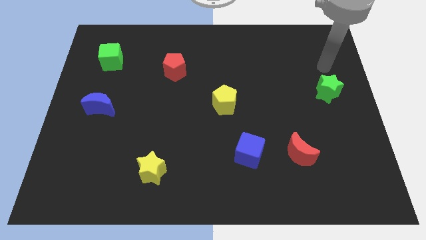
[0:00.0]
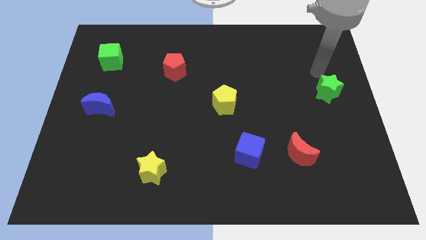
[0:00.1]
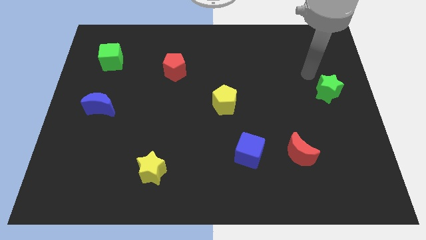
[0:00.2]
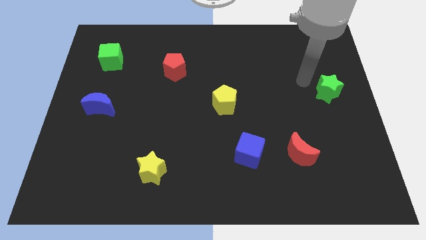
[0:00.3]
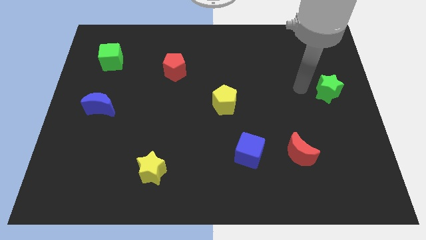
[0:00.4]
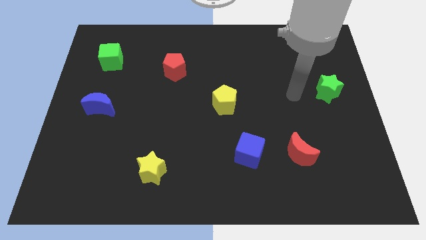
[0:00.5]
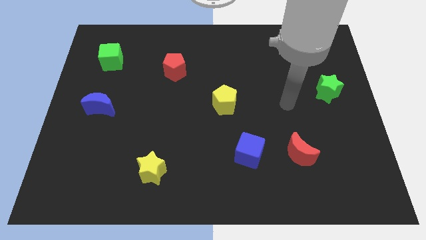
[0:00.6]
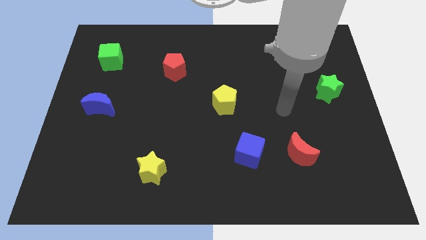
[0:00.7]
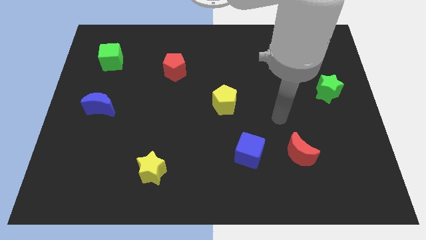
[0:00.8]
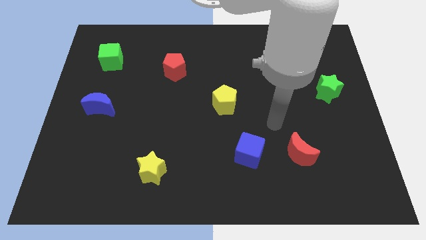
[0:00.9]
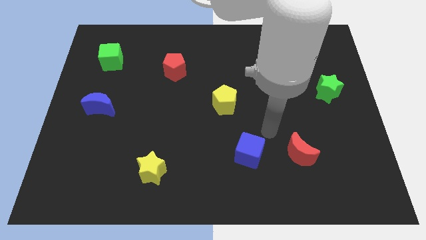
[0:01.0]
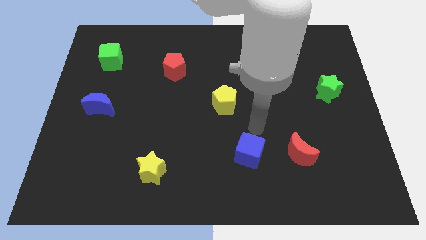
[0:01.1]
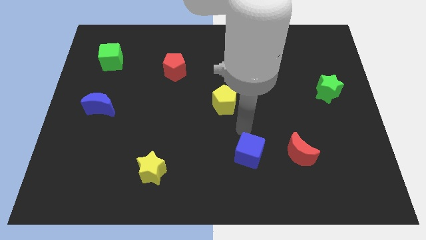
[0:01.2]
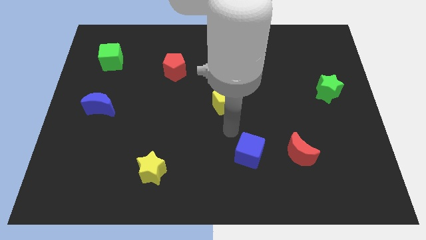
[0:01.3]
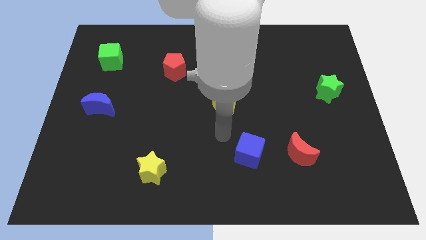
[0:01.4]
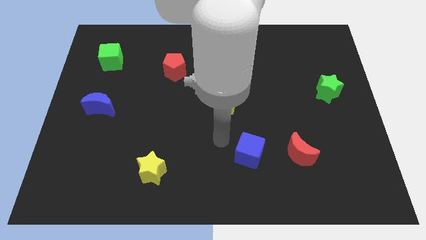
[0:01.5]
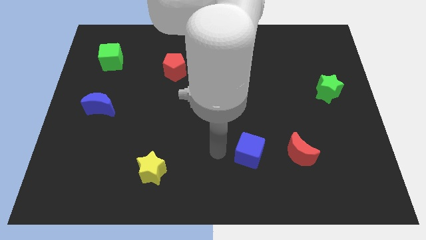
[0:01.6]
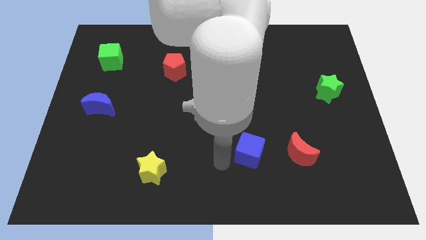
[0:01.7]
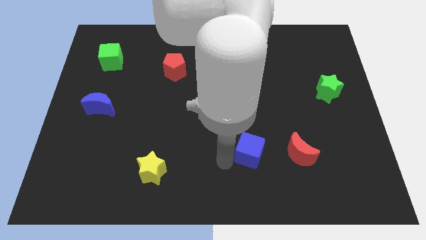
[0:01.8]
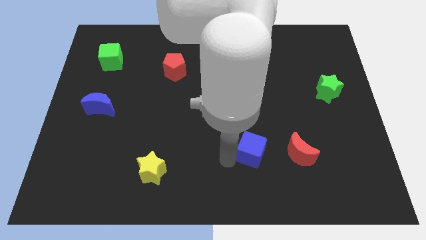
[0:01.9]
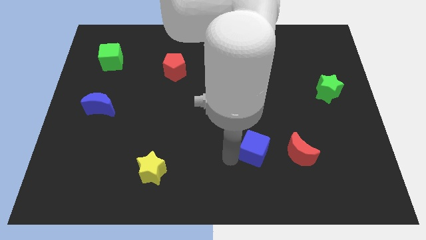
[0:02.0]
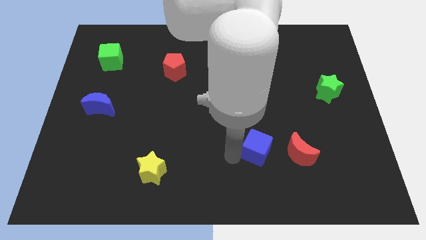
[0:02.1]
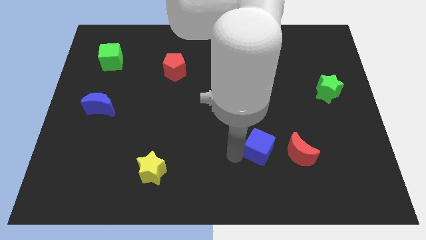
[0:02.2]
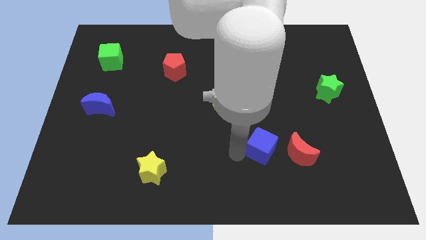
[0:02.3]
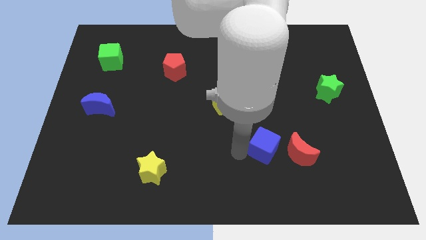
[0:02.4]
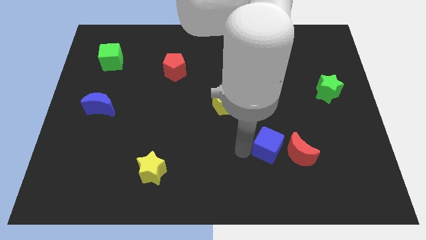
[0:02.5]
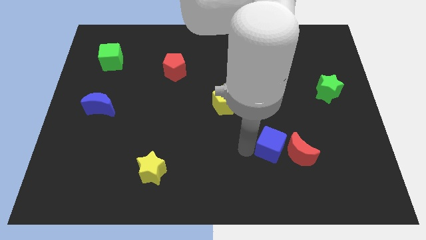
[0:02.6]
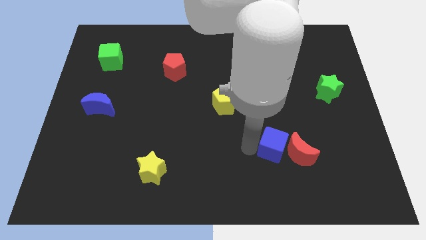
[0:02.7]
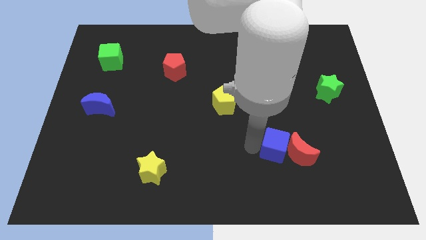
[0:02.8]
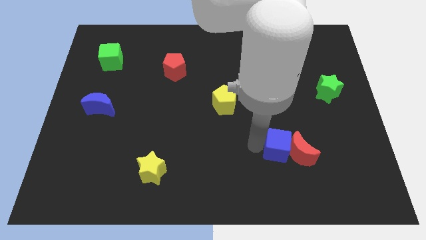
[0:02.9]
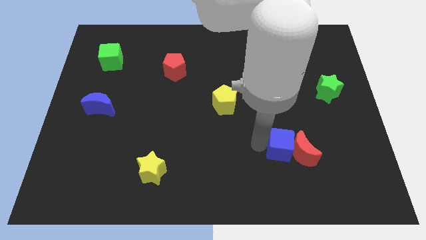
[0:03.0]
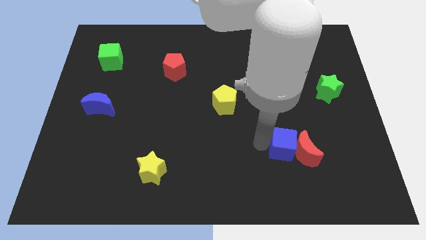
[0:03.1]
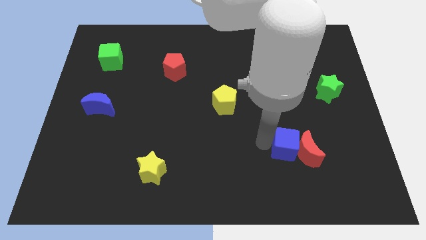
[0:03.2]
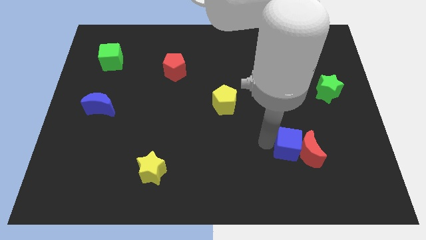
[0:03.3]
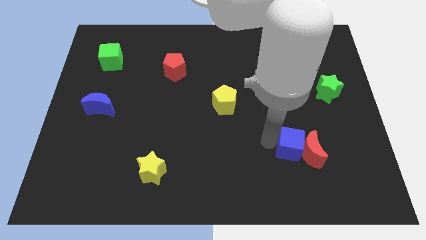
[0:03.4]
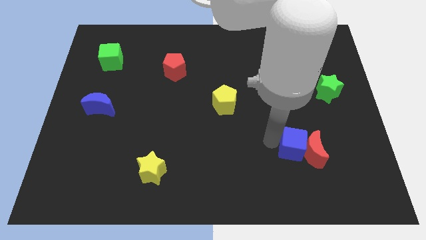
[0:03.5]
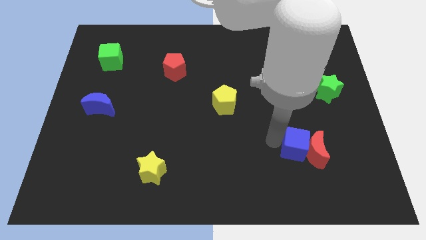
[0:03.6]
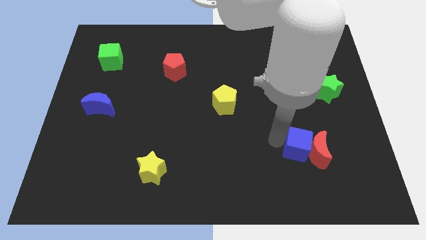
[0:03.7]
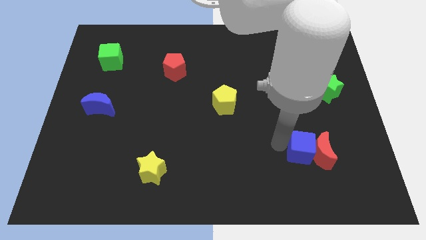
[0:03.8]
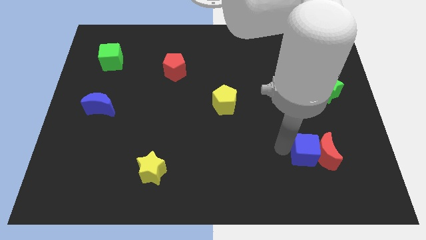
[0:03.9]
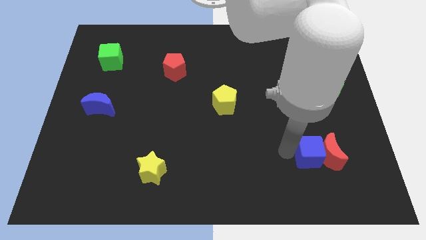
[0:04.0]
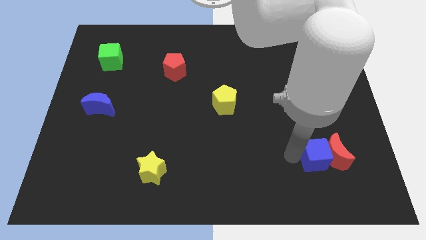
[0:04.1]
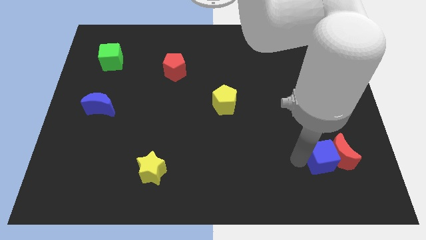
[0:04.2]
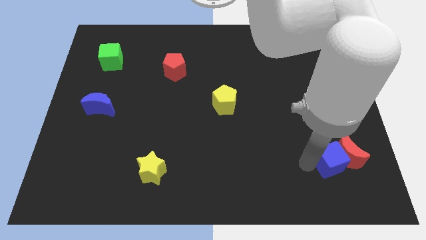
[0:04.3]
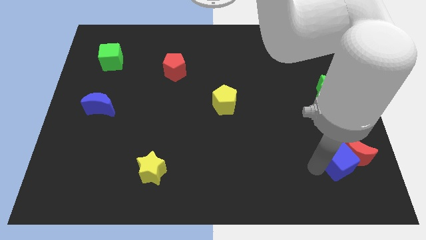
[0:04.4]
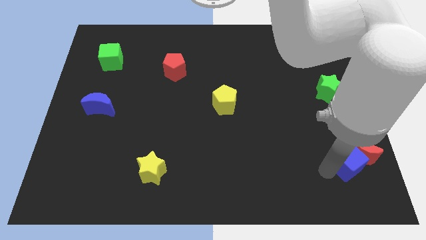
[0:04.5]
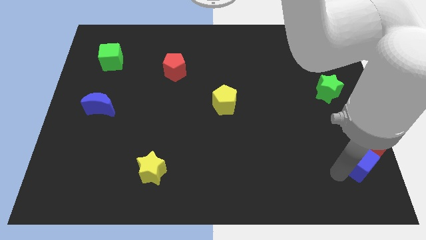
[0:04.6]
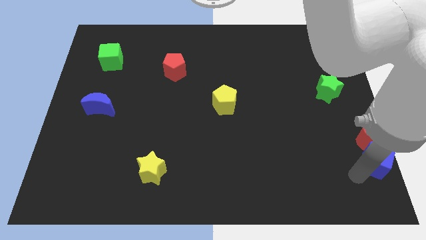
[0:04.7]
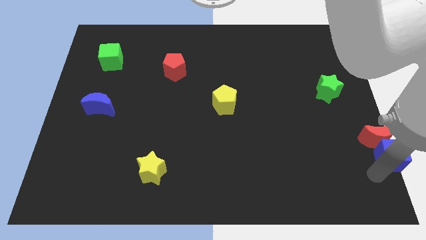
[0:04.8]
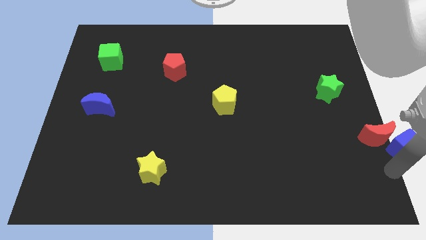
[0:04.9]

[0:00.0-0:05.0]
move the blue cube to the right side

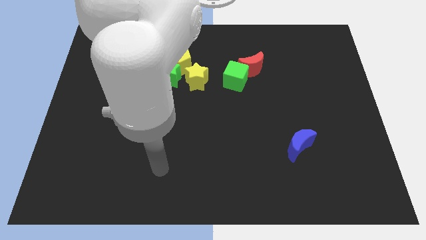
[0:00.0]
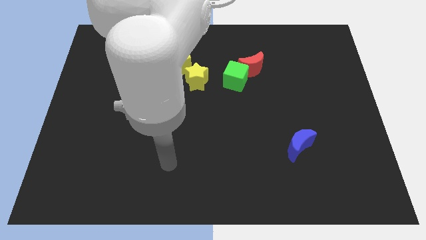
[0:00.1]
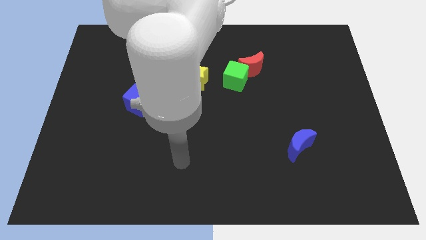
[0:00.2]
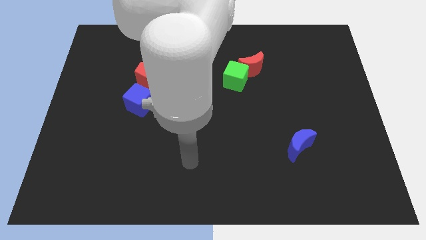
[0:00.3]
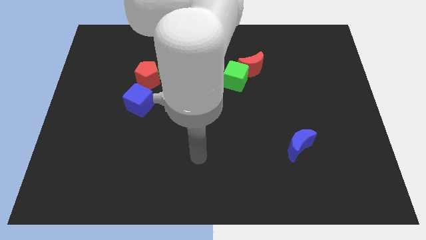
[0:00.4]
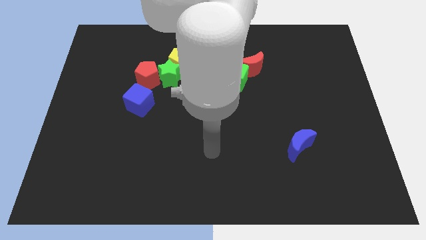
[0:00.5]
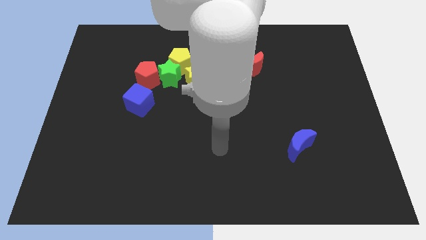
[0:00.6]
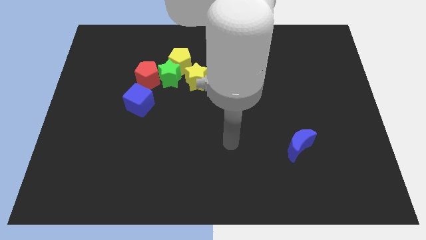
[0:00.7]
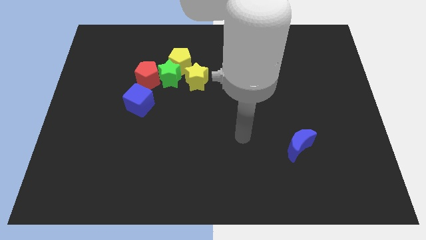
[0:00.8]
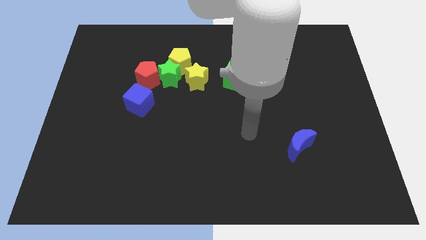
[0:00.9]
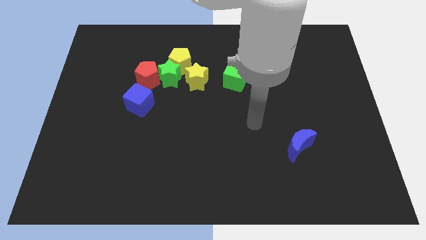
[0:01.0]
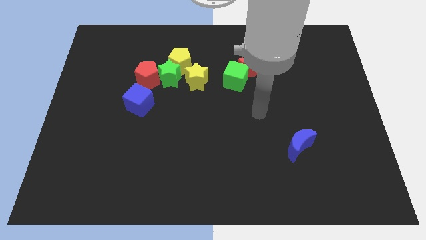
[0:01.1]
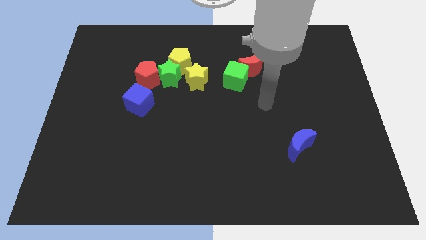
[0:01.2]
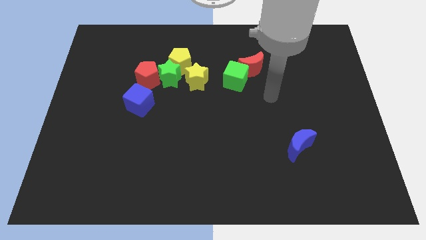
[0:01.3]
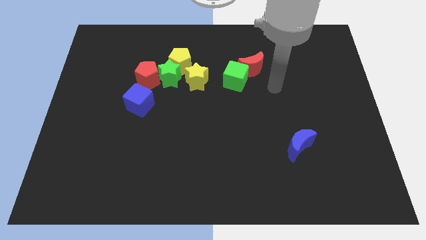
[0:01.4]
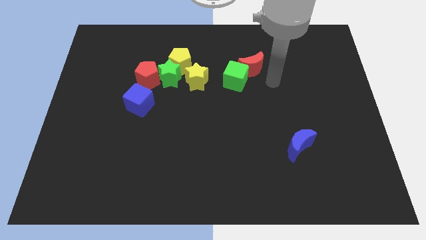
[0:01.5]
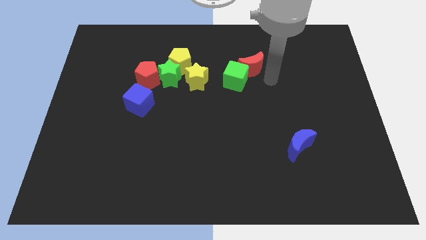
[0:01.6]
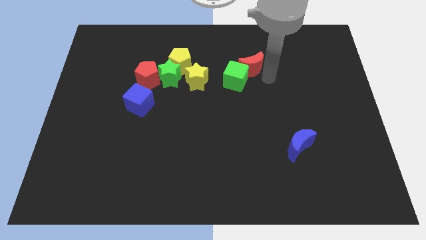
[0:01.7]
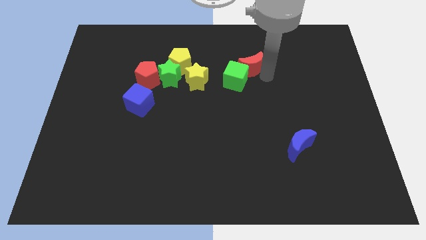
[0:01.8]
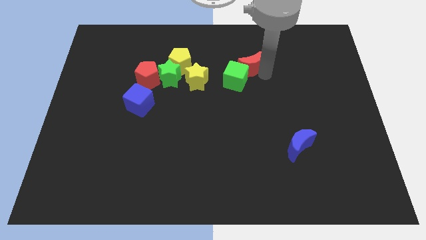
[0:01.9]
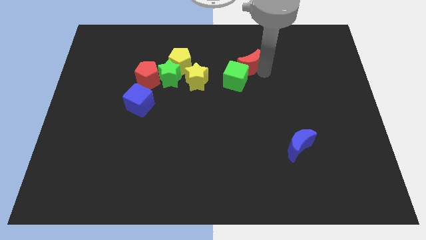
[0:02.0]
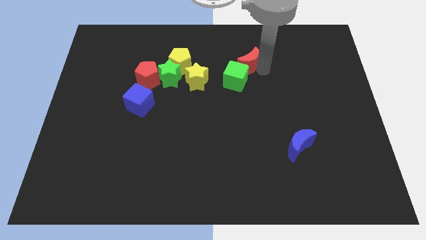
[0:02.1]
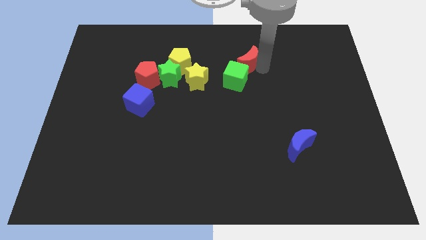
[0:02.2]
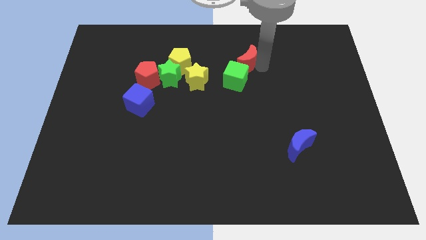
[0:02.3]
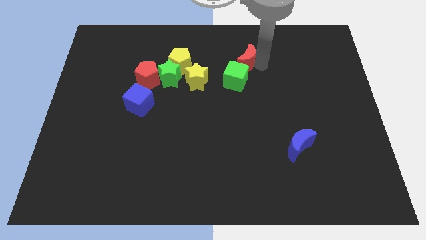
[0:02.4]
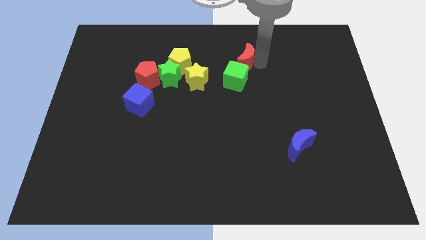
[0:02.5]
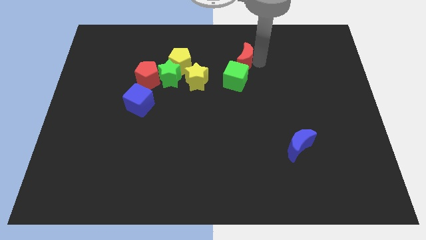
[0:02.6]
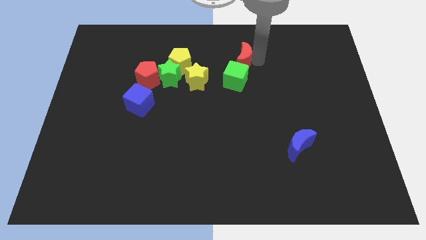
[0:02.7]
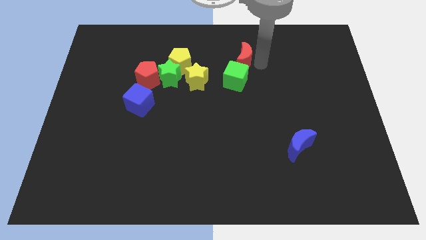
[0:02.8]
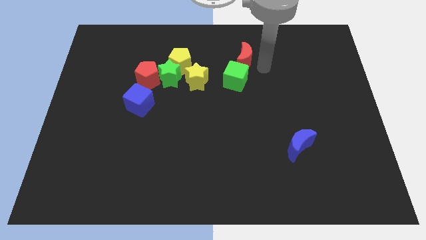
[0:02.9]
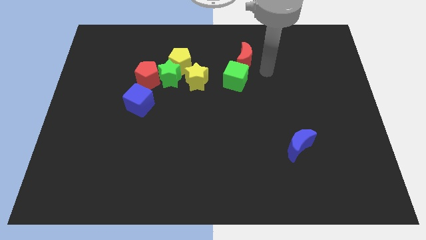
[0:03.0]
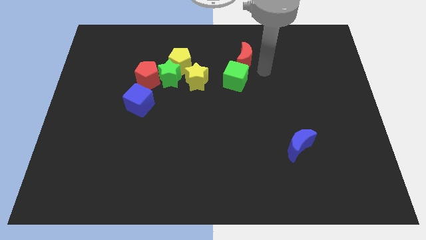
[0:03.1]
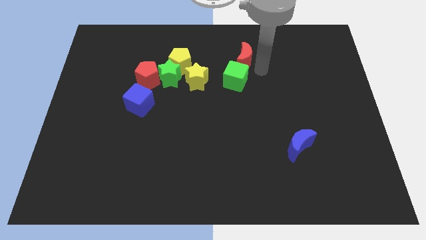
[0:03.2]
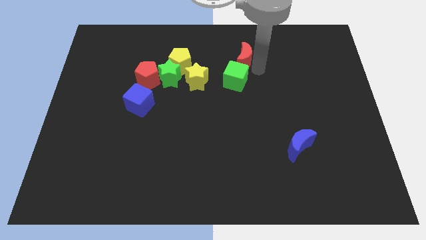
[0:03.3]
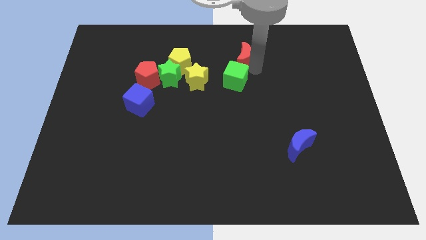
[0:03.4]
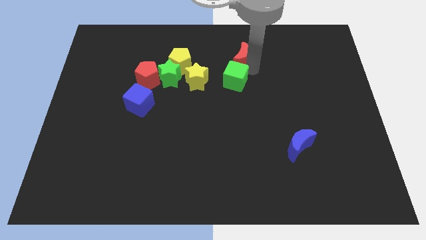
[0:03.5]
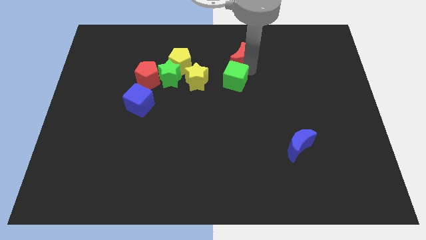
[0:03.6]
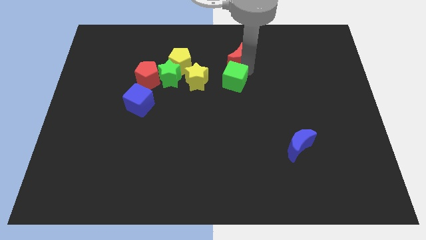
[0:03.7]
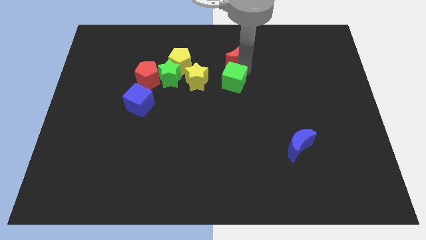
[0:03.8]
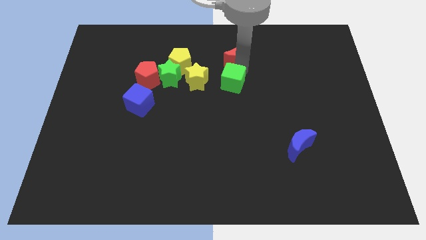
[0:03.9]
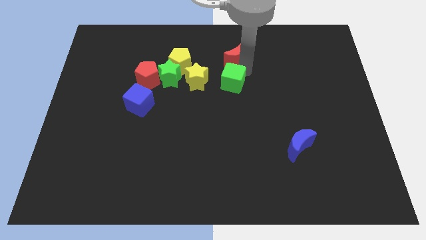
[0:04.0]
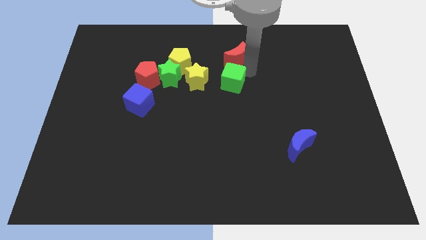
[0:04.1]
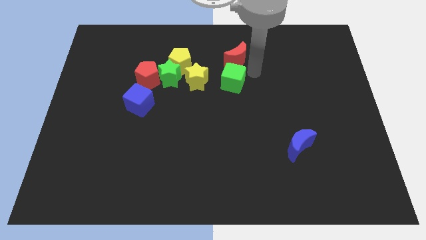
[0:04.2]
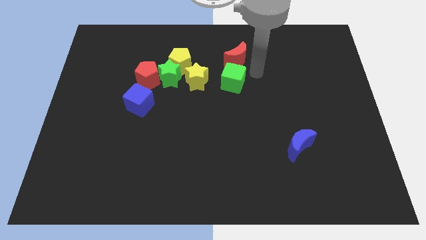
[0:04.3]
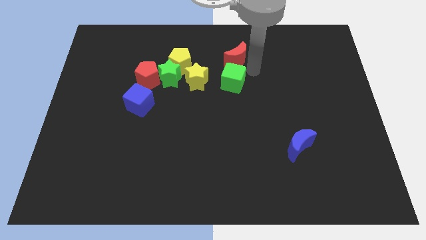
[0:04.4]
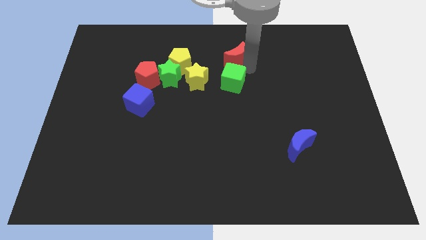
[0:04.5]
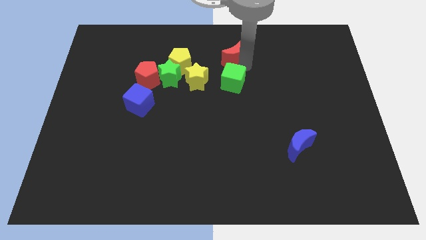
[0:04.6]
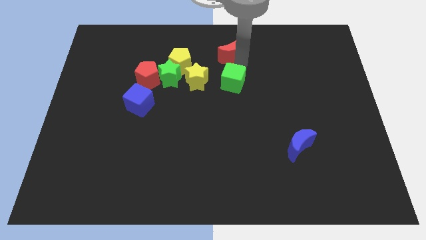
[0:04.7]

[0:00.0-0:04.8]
slide the red moon to the top side
